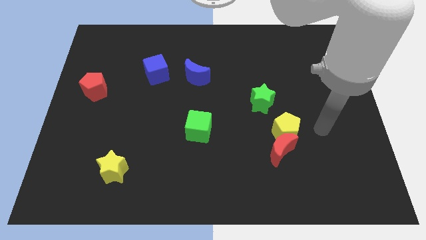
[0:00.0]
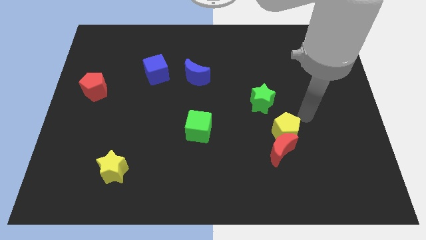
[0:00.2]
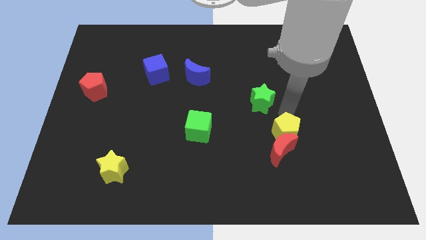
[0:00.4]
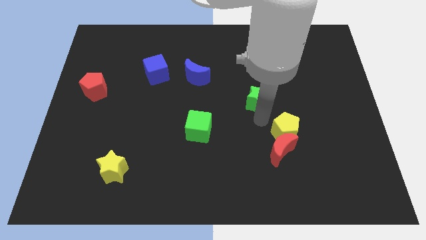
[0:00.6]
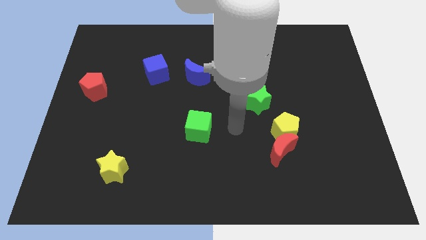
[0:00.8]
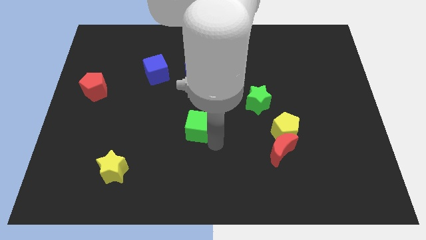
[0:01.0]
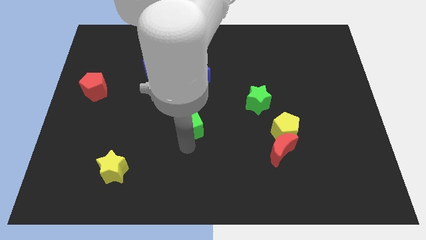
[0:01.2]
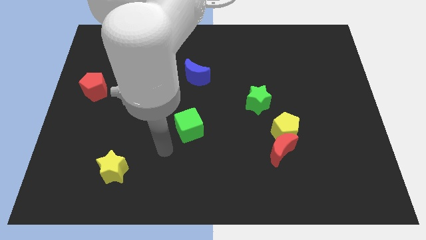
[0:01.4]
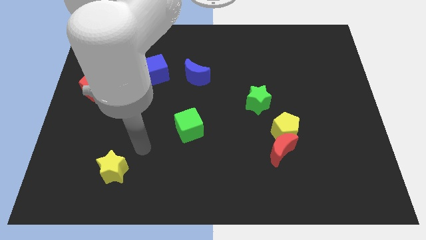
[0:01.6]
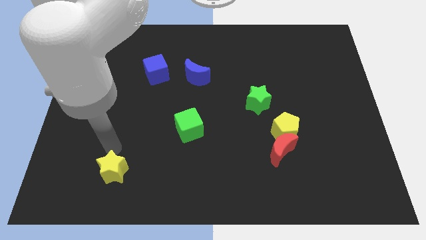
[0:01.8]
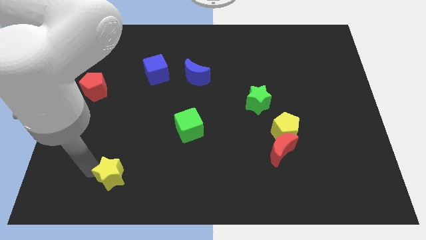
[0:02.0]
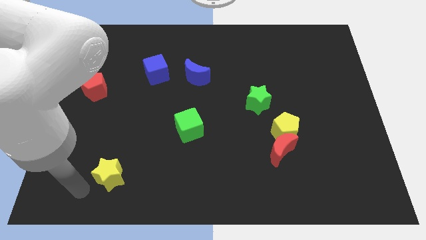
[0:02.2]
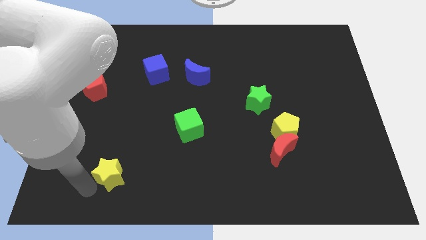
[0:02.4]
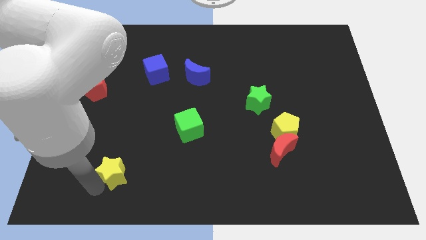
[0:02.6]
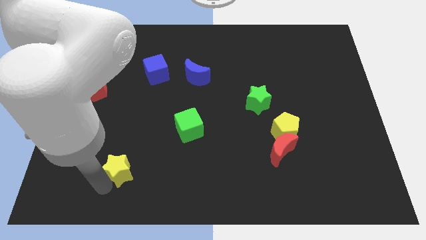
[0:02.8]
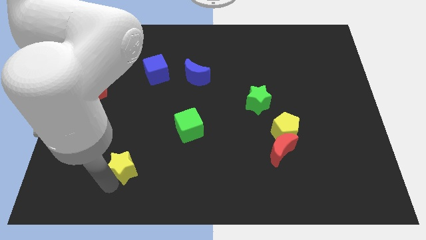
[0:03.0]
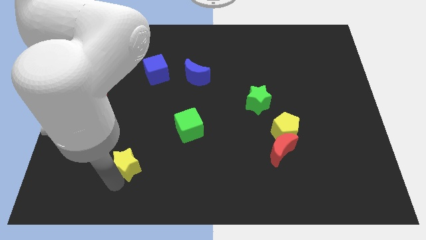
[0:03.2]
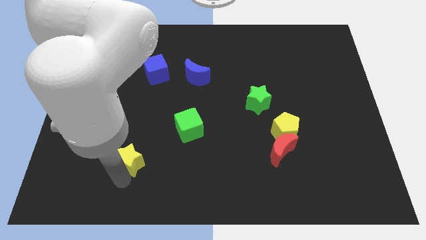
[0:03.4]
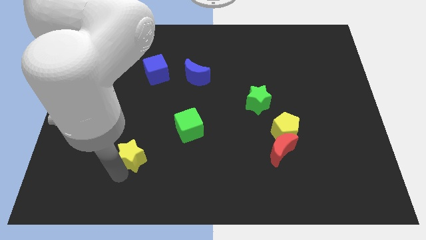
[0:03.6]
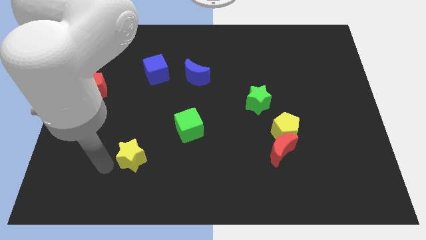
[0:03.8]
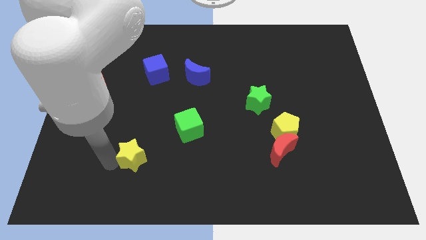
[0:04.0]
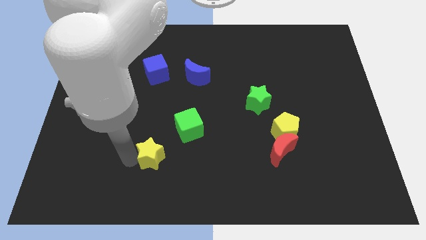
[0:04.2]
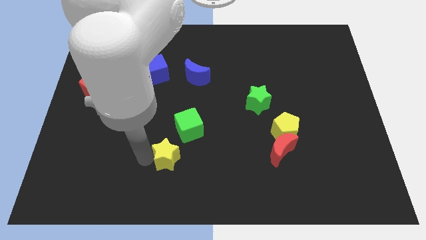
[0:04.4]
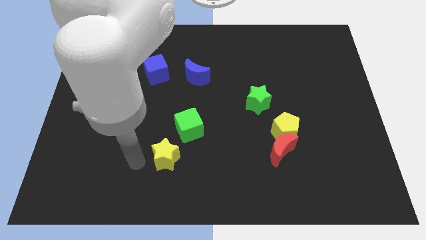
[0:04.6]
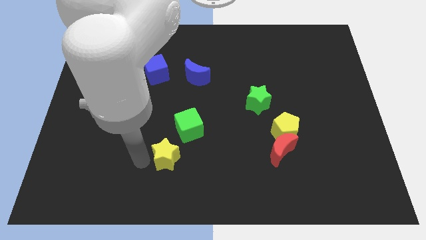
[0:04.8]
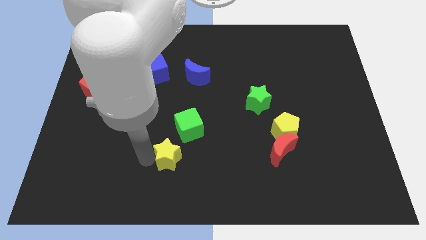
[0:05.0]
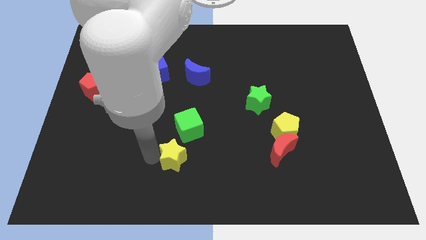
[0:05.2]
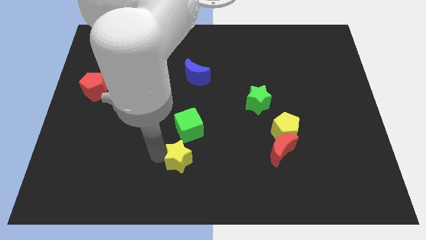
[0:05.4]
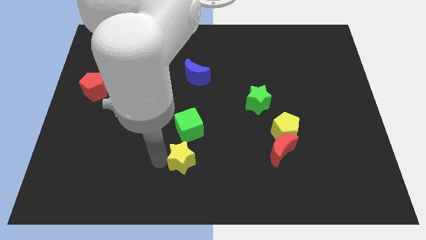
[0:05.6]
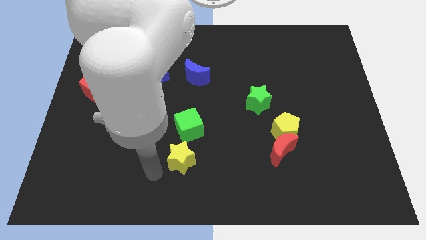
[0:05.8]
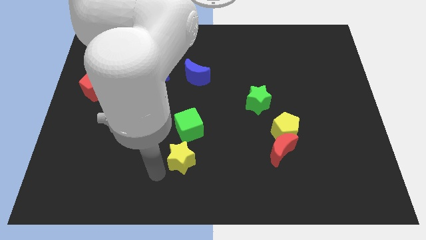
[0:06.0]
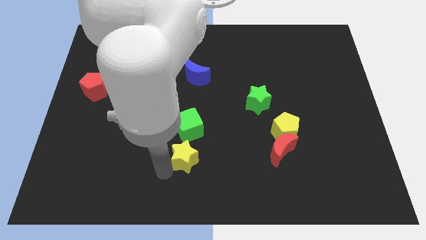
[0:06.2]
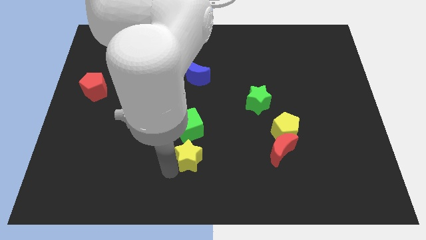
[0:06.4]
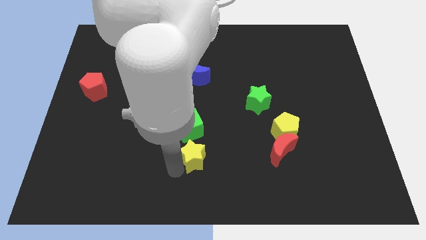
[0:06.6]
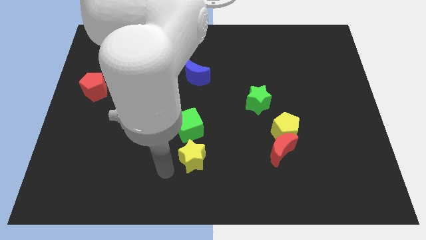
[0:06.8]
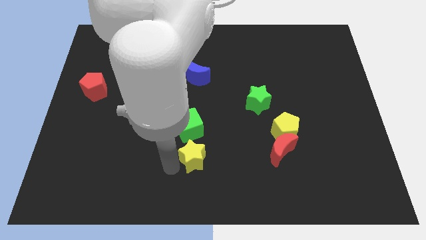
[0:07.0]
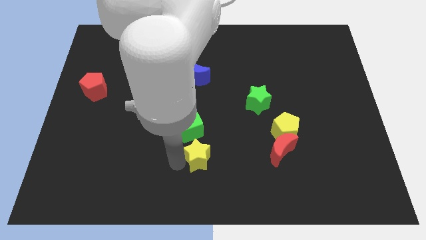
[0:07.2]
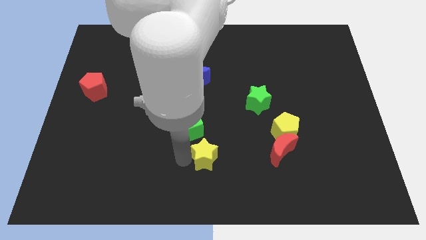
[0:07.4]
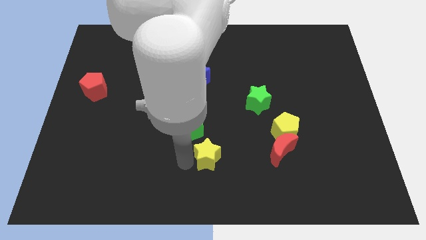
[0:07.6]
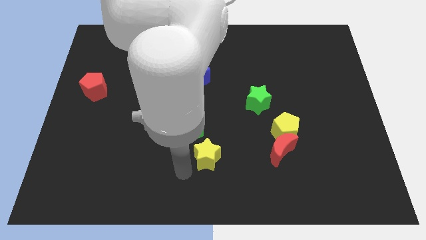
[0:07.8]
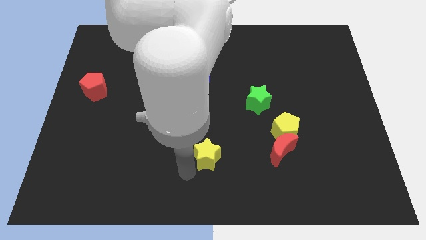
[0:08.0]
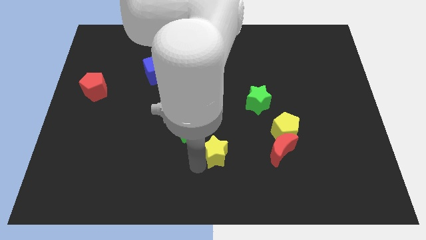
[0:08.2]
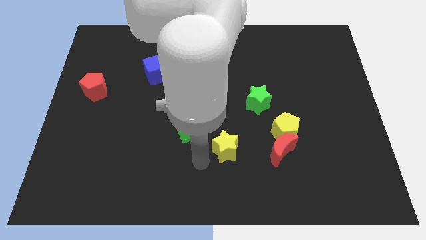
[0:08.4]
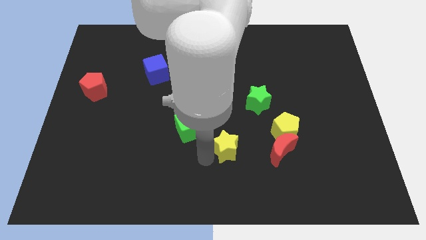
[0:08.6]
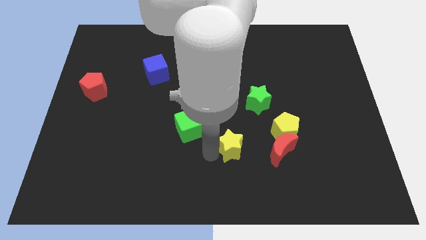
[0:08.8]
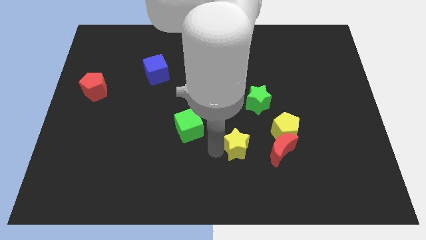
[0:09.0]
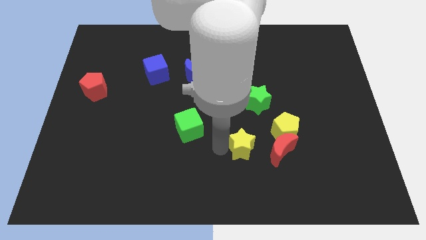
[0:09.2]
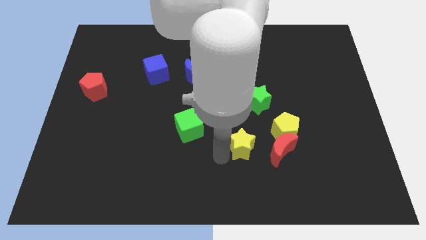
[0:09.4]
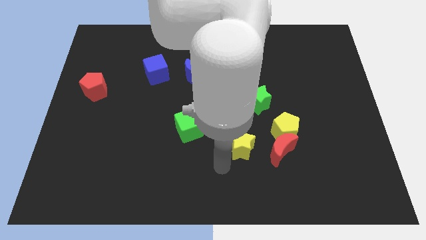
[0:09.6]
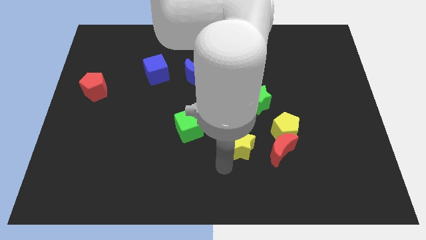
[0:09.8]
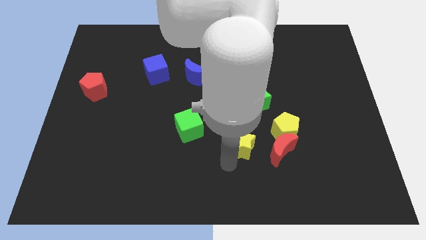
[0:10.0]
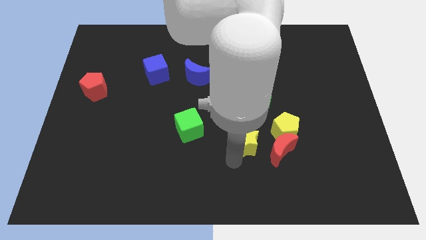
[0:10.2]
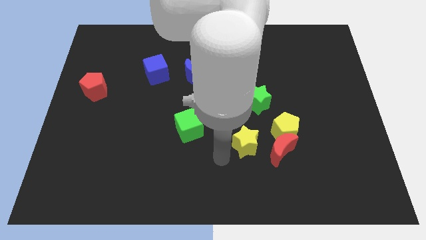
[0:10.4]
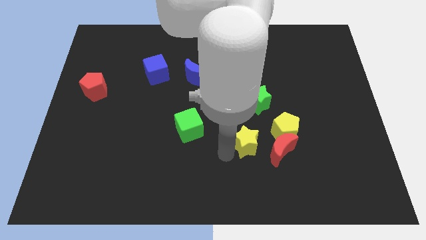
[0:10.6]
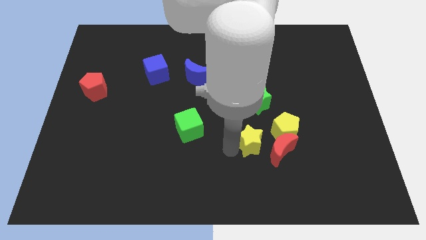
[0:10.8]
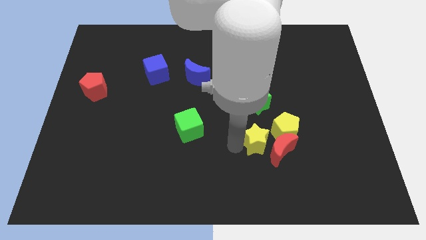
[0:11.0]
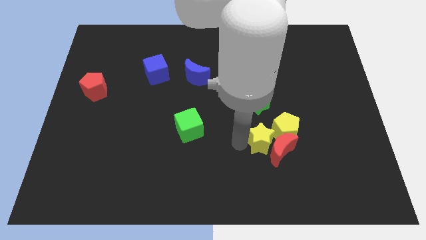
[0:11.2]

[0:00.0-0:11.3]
push the yellow star to the yellow pentagon

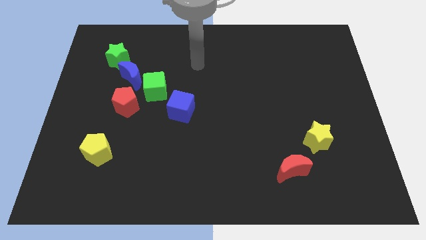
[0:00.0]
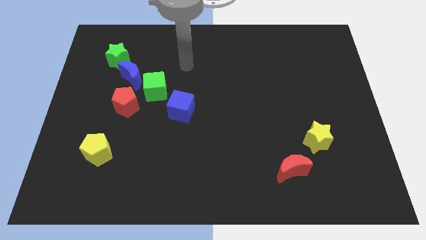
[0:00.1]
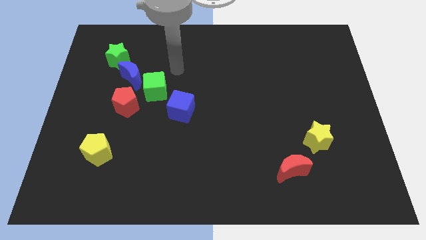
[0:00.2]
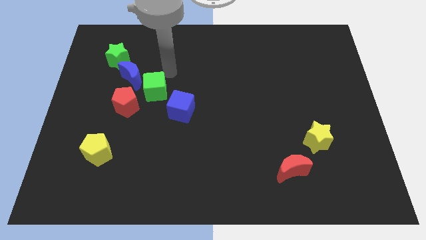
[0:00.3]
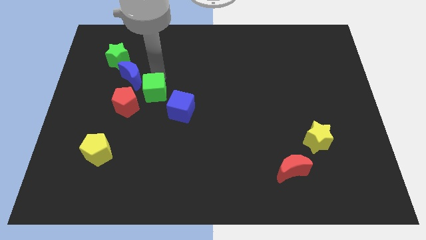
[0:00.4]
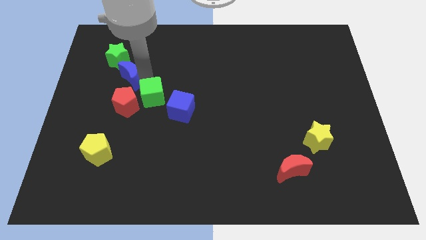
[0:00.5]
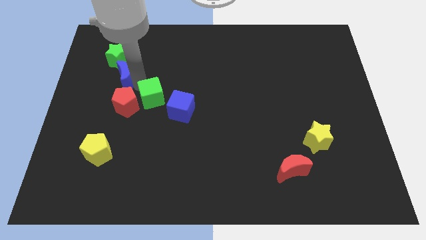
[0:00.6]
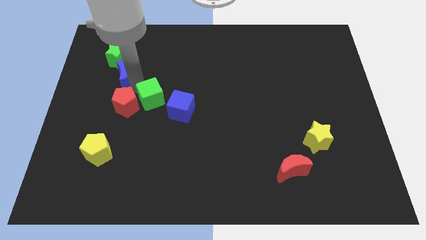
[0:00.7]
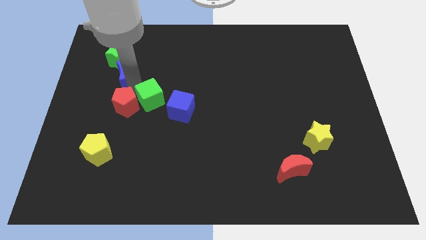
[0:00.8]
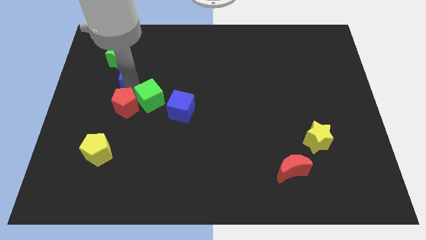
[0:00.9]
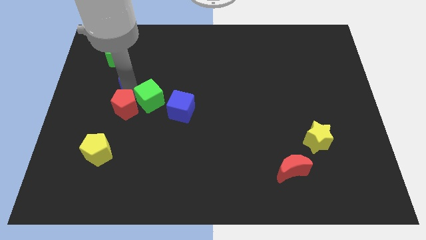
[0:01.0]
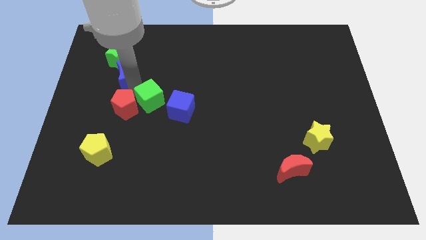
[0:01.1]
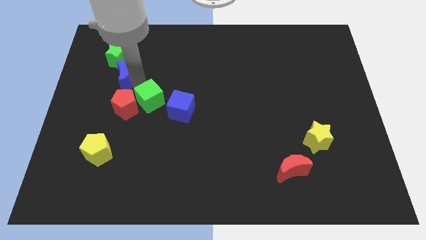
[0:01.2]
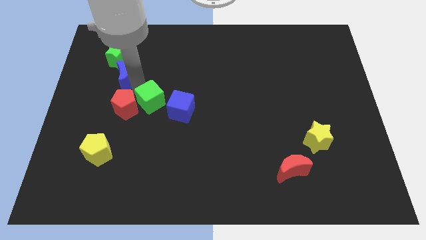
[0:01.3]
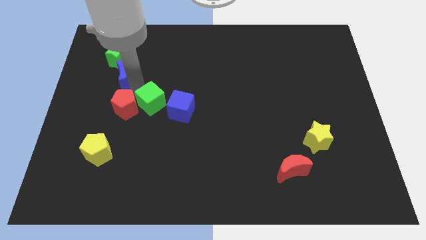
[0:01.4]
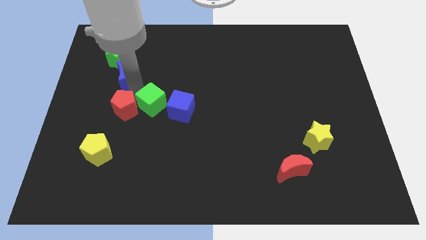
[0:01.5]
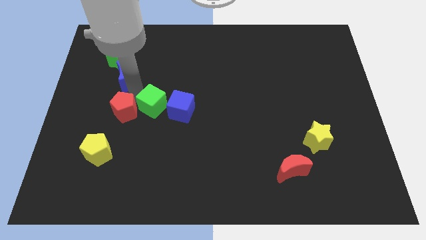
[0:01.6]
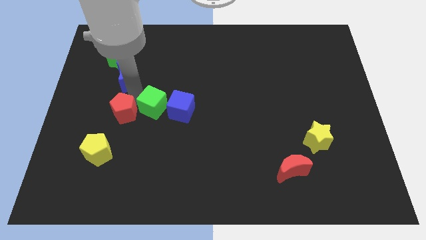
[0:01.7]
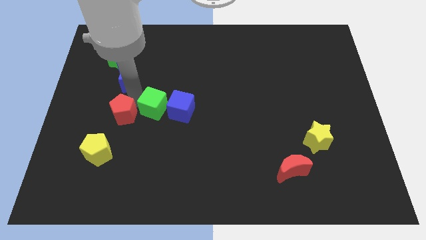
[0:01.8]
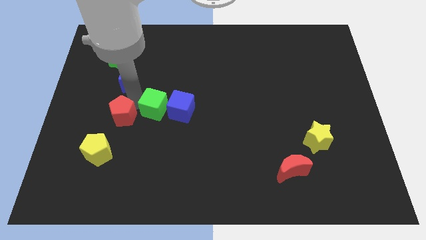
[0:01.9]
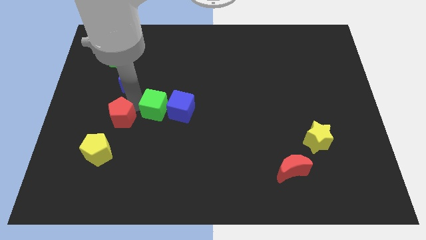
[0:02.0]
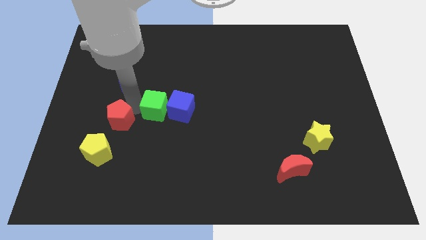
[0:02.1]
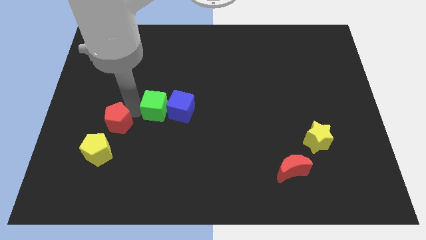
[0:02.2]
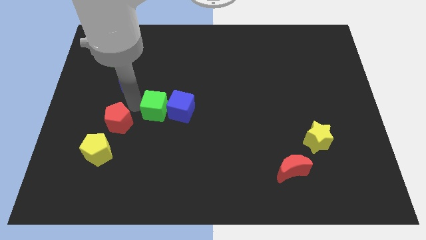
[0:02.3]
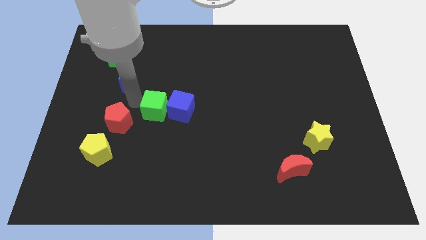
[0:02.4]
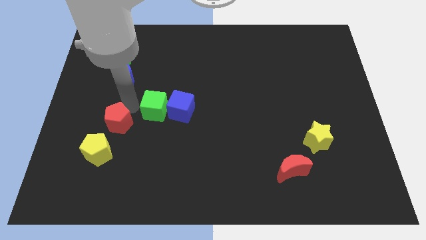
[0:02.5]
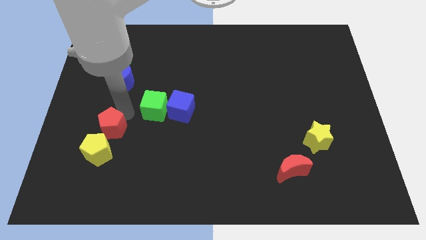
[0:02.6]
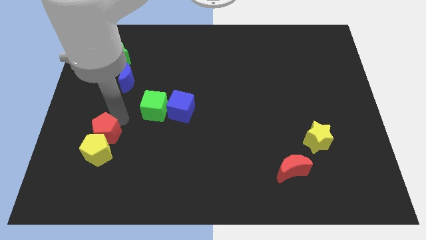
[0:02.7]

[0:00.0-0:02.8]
put the red pentagon next to the yellow pentagon
